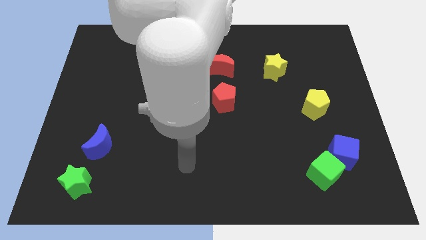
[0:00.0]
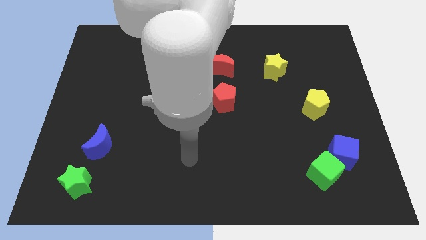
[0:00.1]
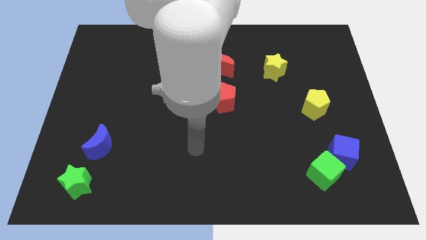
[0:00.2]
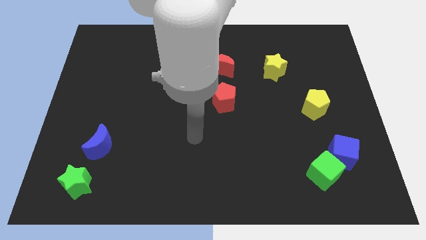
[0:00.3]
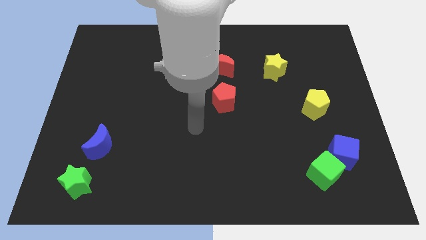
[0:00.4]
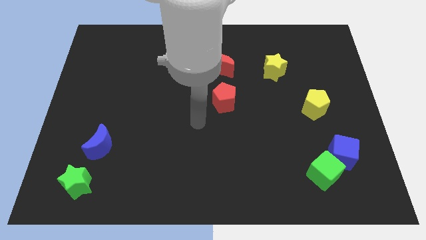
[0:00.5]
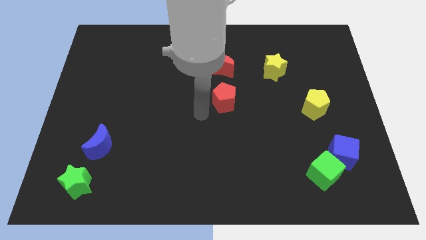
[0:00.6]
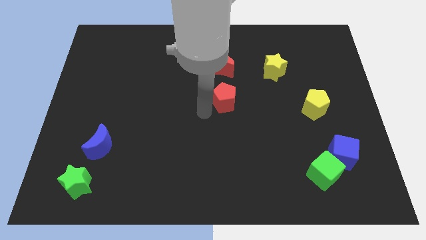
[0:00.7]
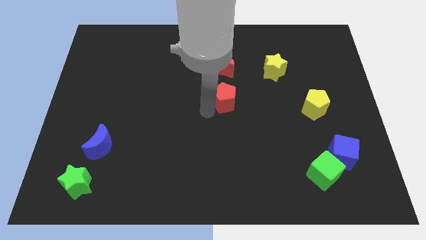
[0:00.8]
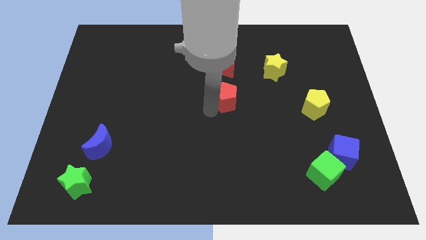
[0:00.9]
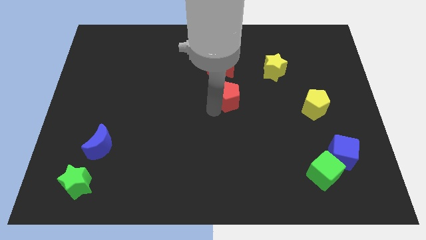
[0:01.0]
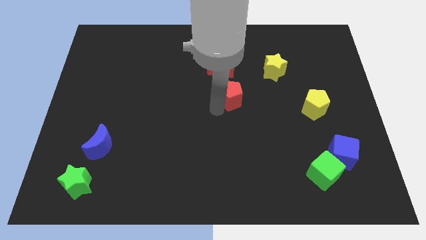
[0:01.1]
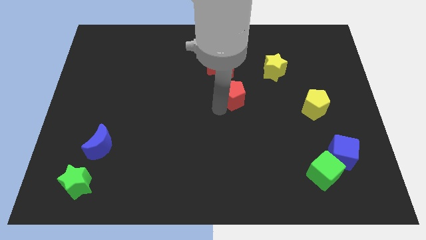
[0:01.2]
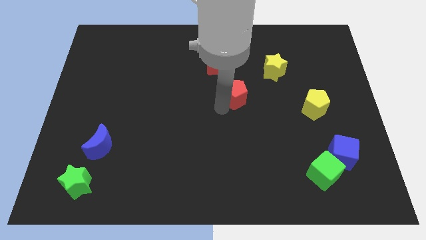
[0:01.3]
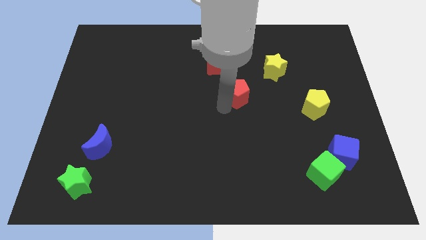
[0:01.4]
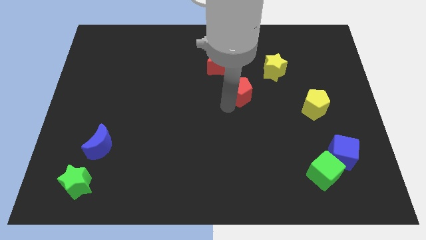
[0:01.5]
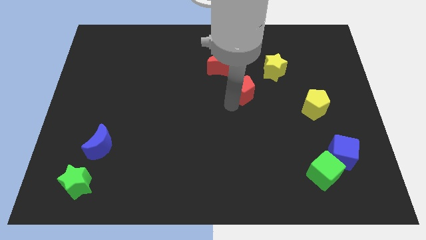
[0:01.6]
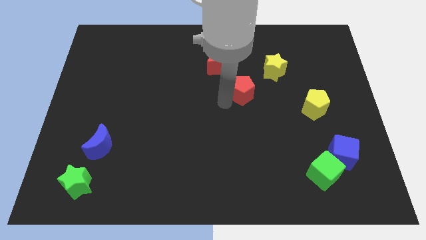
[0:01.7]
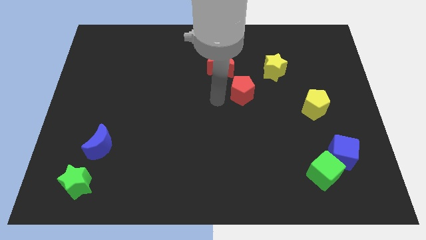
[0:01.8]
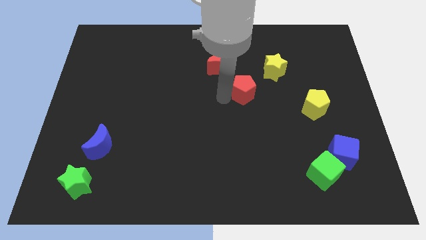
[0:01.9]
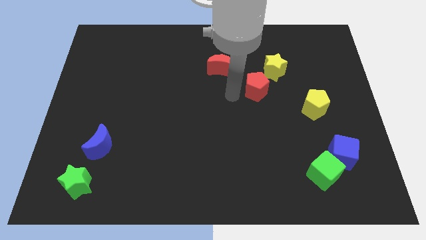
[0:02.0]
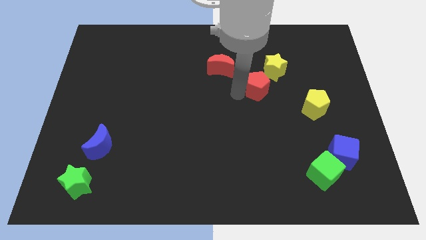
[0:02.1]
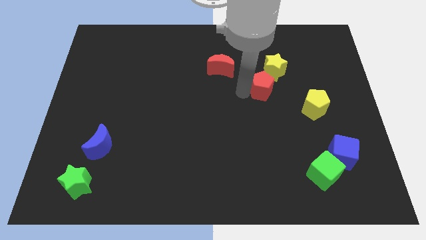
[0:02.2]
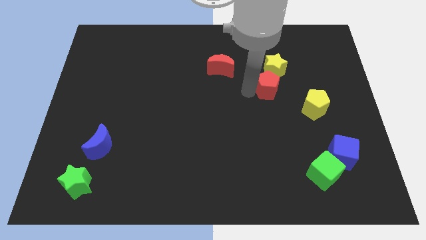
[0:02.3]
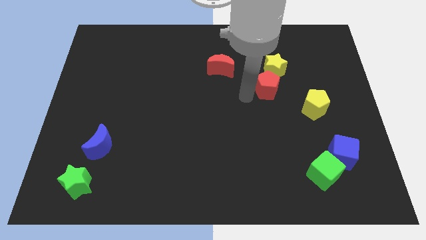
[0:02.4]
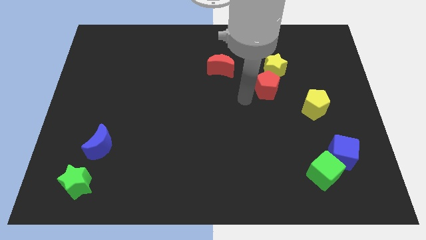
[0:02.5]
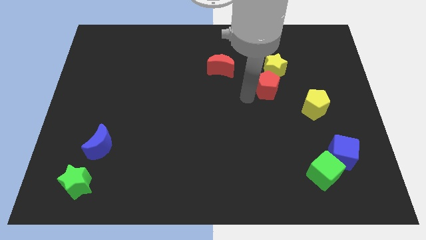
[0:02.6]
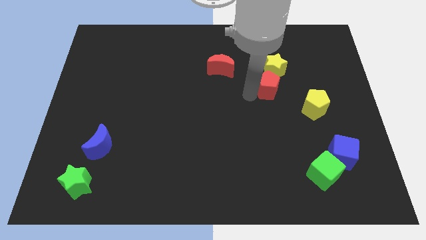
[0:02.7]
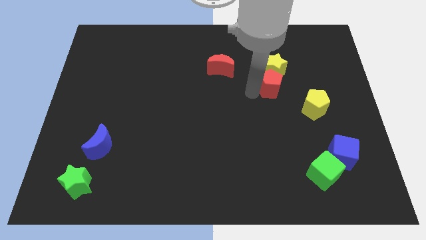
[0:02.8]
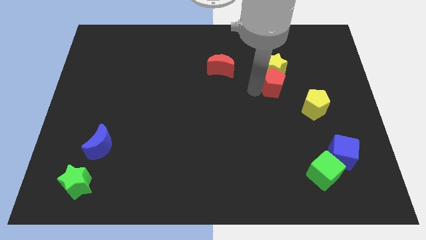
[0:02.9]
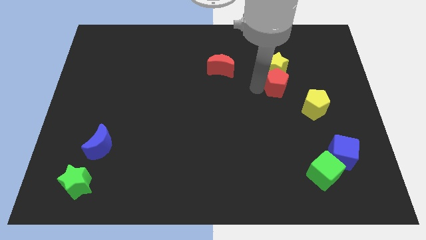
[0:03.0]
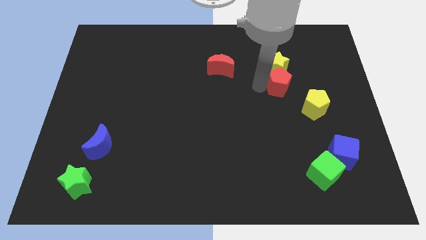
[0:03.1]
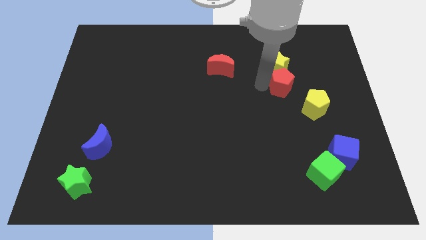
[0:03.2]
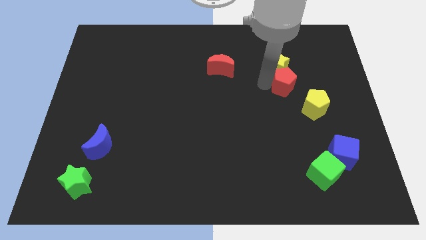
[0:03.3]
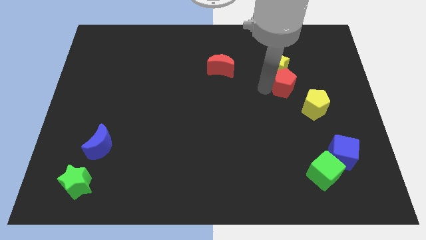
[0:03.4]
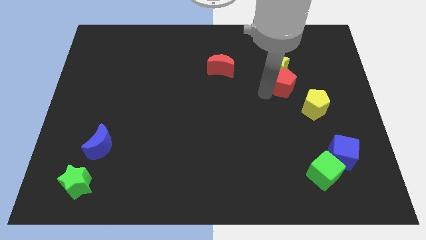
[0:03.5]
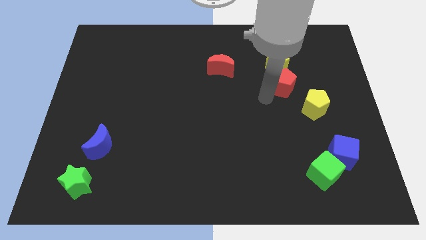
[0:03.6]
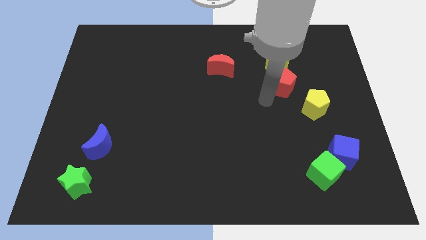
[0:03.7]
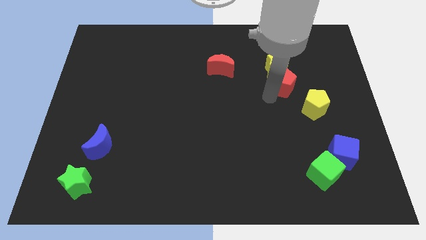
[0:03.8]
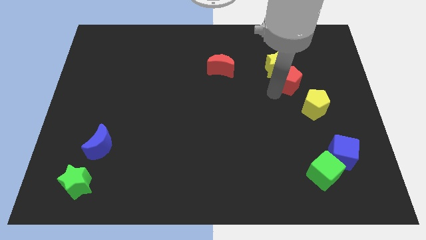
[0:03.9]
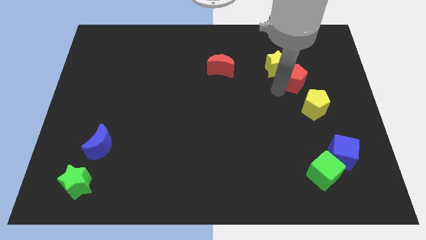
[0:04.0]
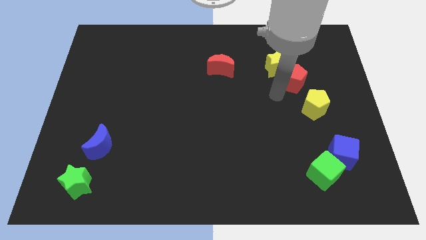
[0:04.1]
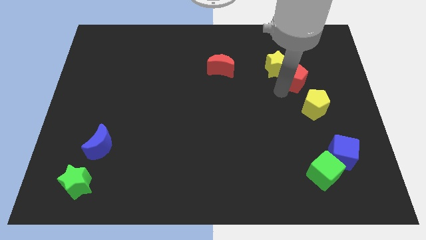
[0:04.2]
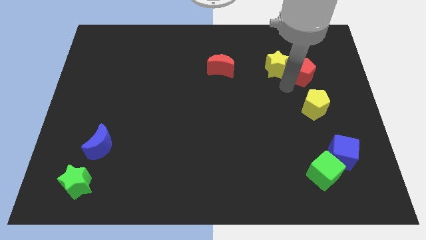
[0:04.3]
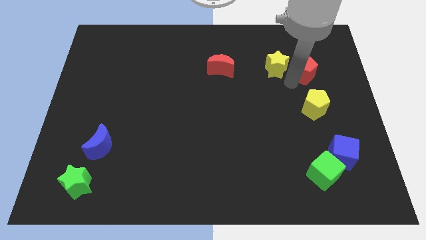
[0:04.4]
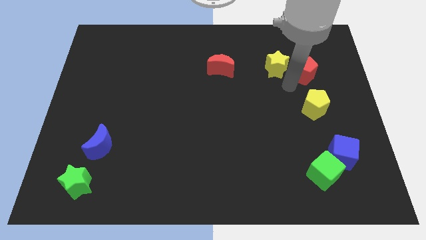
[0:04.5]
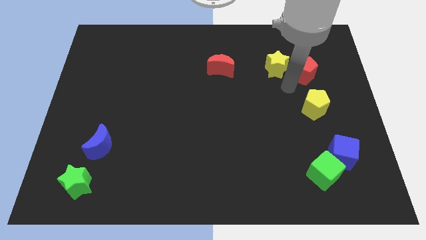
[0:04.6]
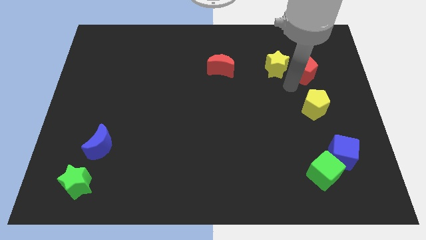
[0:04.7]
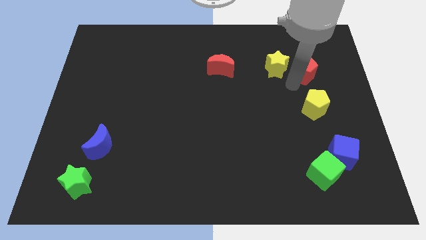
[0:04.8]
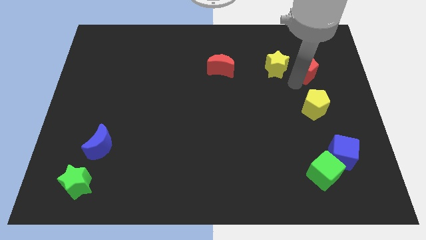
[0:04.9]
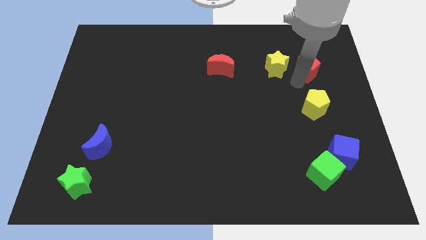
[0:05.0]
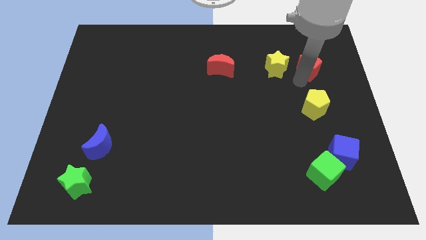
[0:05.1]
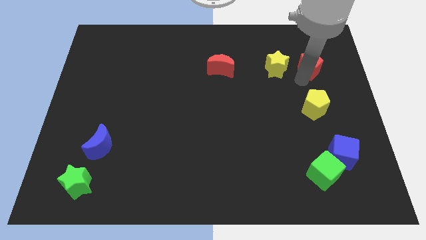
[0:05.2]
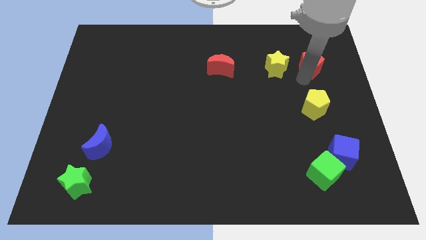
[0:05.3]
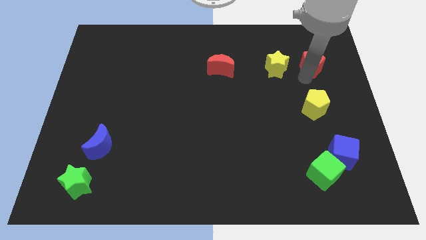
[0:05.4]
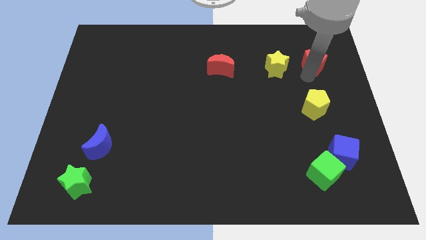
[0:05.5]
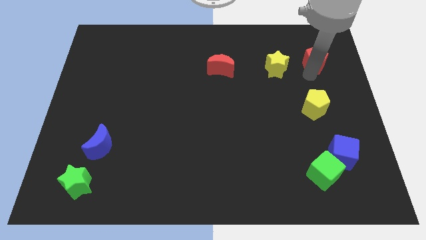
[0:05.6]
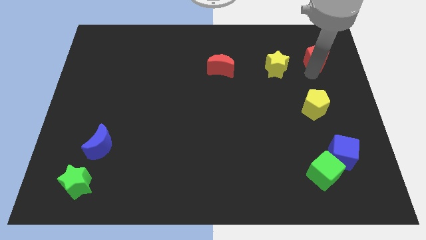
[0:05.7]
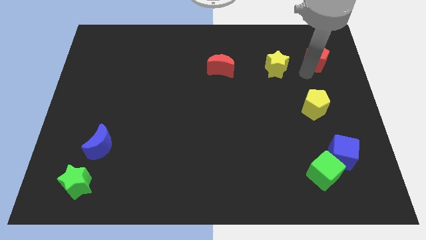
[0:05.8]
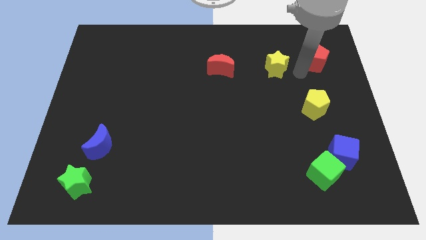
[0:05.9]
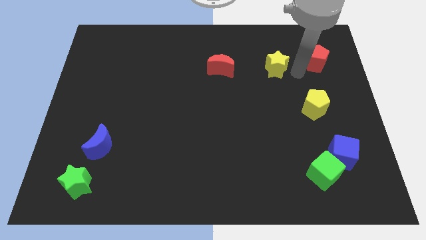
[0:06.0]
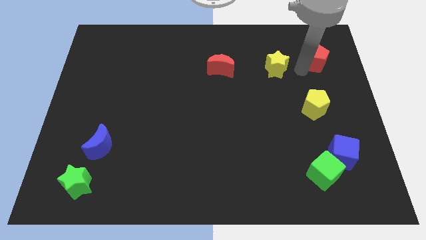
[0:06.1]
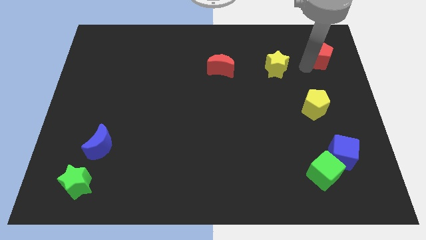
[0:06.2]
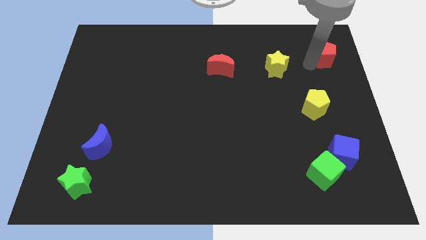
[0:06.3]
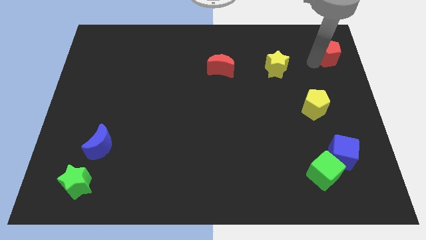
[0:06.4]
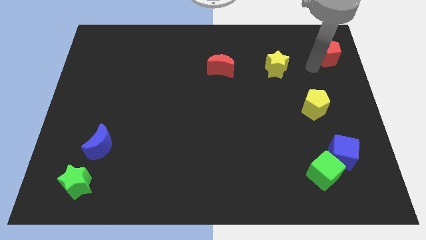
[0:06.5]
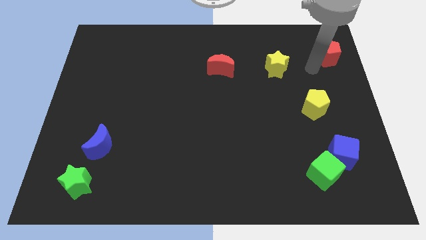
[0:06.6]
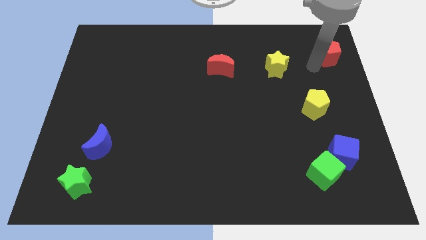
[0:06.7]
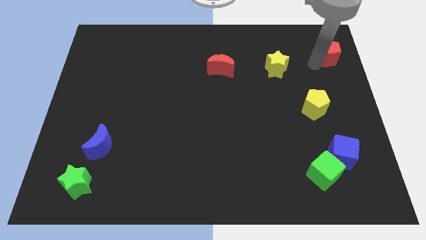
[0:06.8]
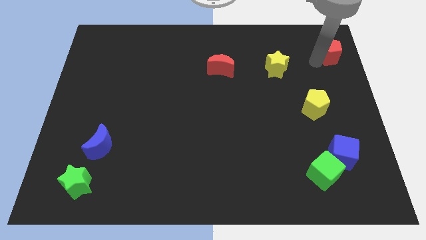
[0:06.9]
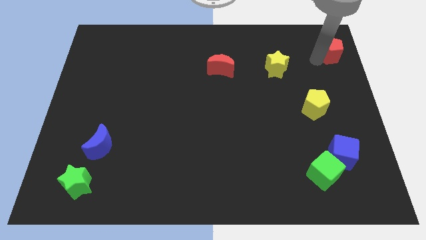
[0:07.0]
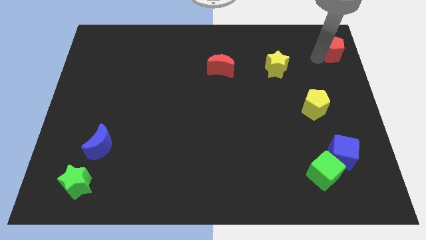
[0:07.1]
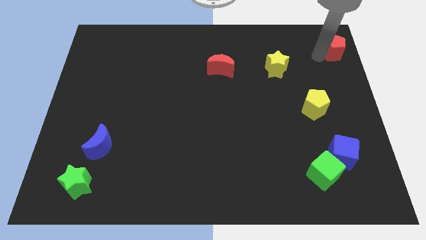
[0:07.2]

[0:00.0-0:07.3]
slide the red pentagon to the top right
